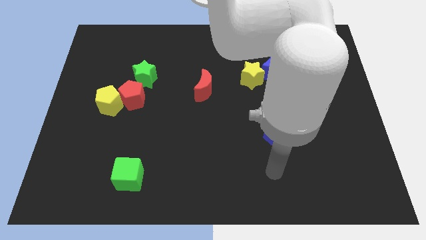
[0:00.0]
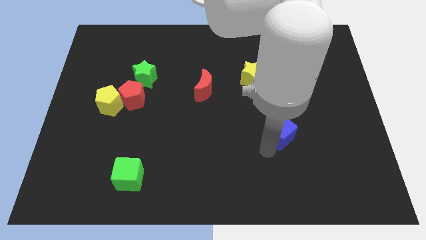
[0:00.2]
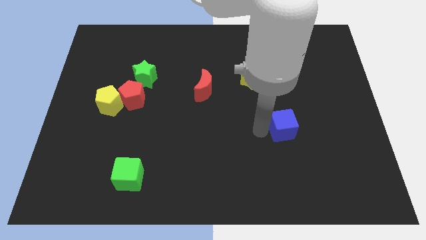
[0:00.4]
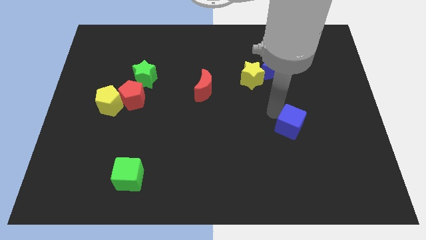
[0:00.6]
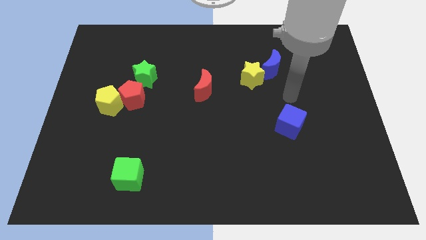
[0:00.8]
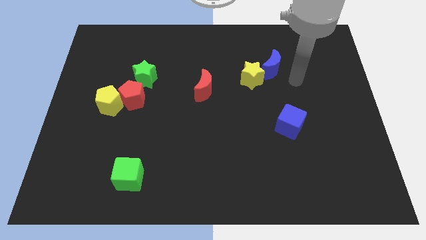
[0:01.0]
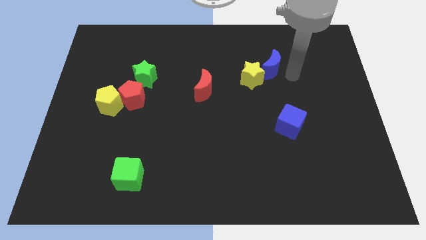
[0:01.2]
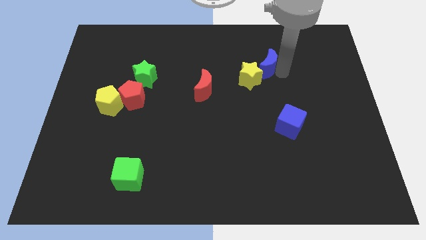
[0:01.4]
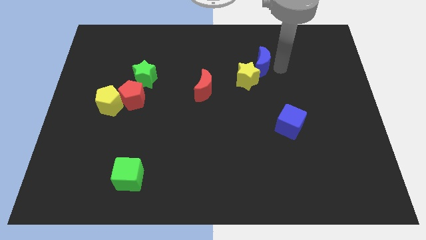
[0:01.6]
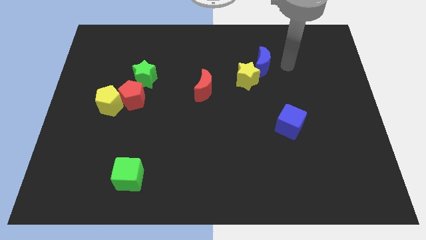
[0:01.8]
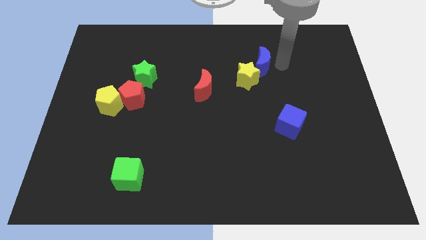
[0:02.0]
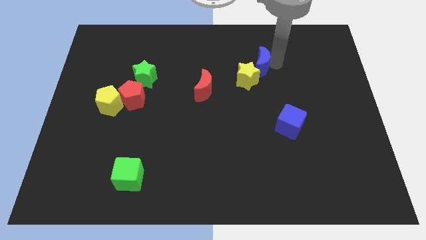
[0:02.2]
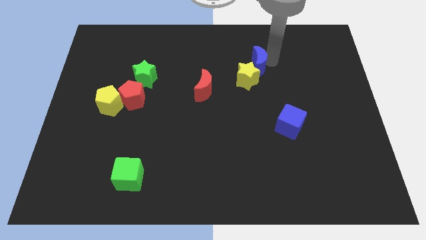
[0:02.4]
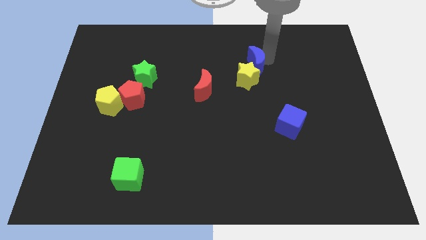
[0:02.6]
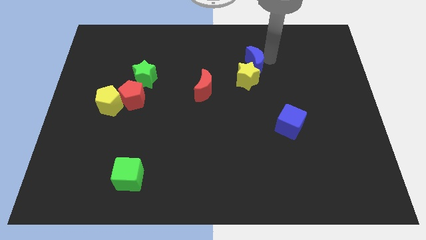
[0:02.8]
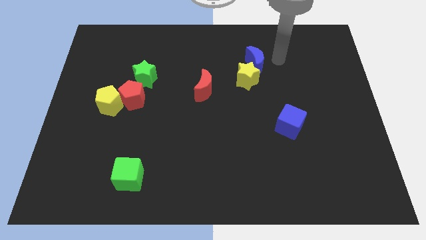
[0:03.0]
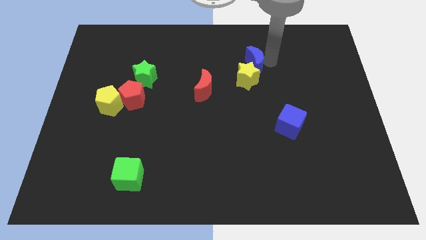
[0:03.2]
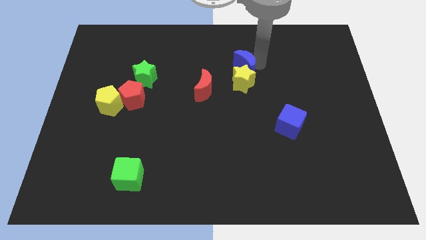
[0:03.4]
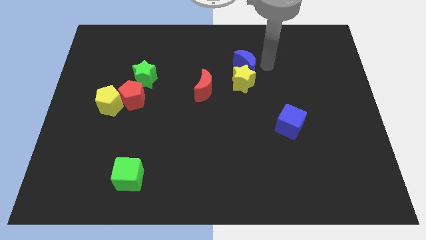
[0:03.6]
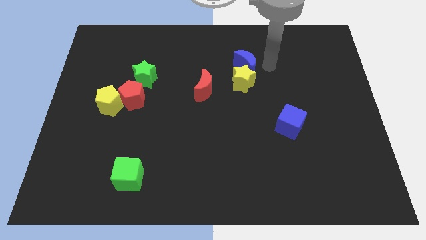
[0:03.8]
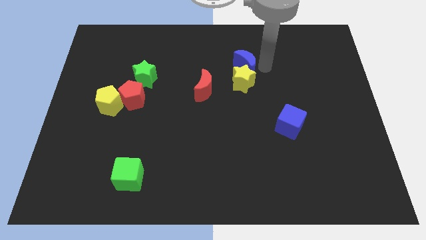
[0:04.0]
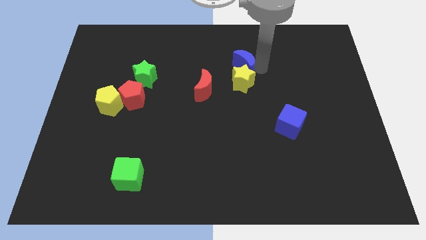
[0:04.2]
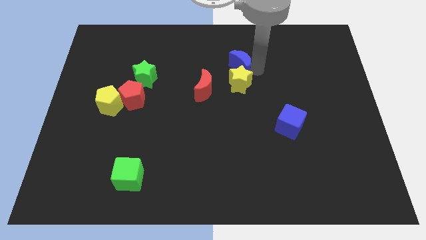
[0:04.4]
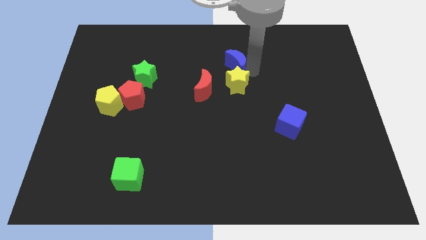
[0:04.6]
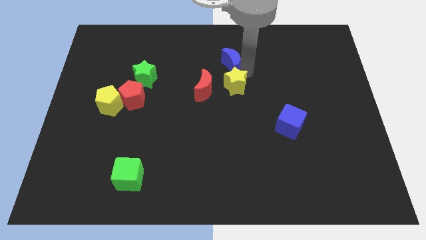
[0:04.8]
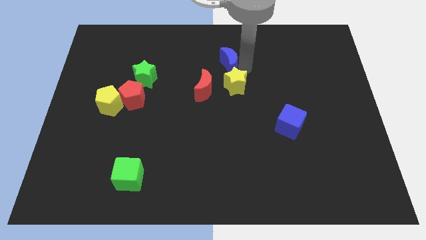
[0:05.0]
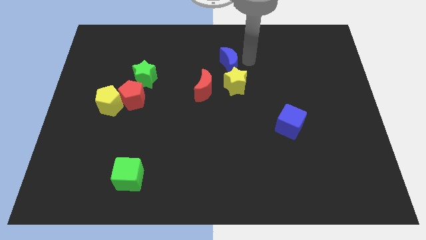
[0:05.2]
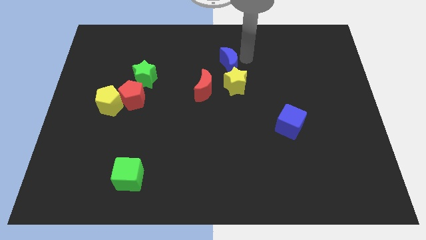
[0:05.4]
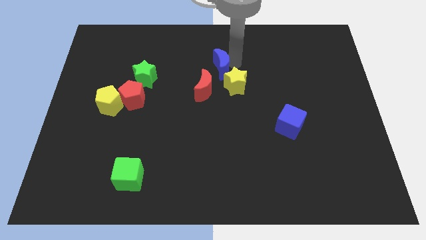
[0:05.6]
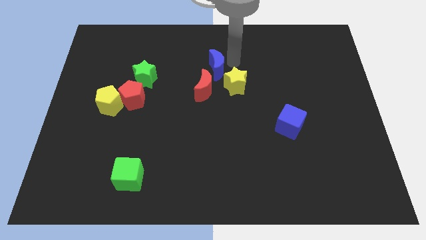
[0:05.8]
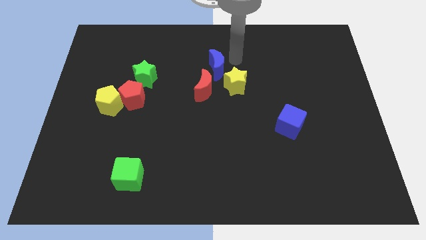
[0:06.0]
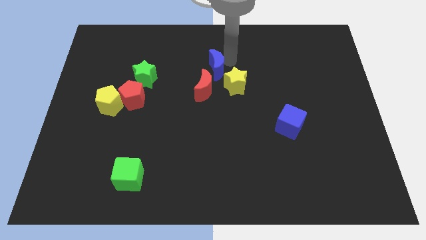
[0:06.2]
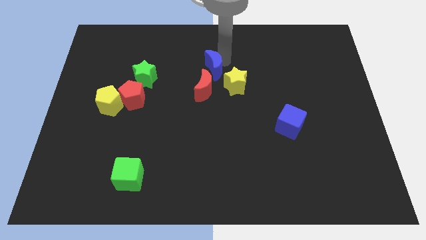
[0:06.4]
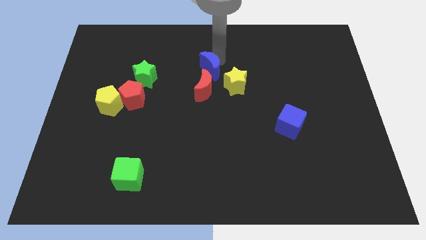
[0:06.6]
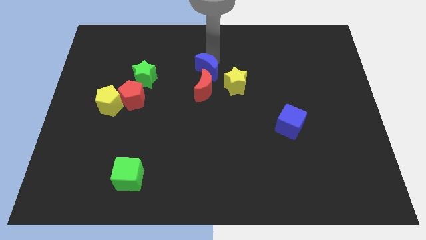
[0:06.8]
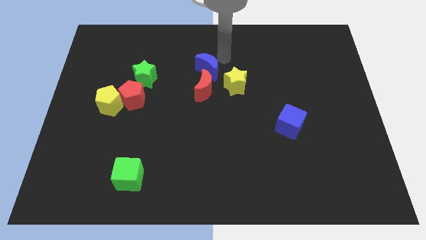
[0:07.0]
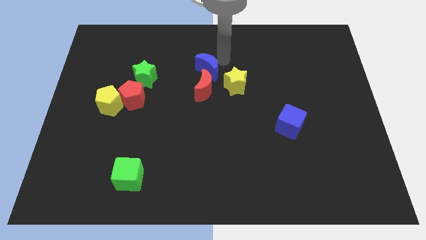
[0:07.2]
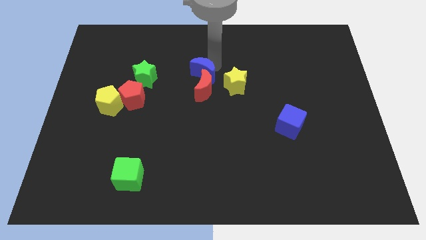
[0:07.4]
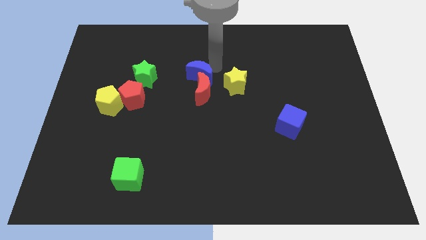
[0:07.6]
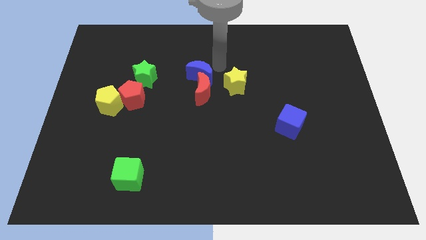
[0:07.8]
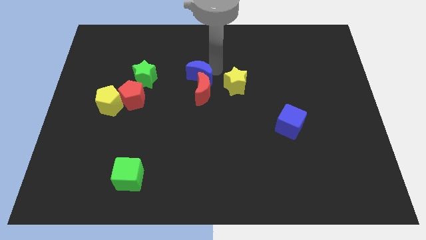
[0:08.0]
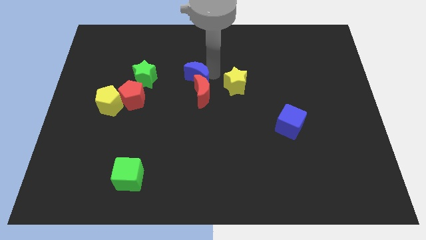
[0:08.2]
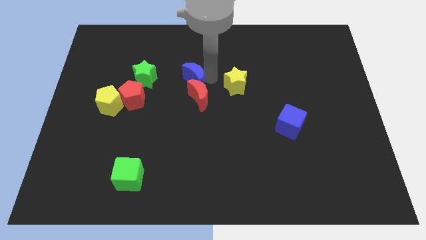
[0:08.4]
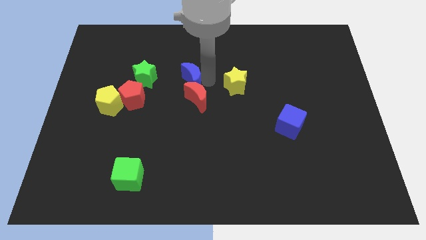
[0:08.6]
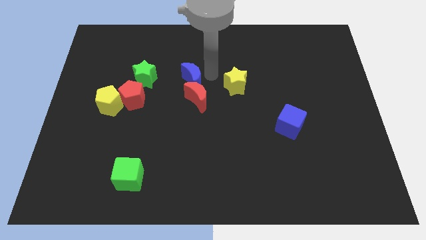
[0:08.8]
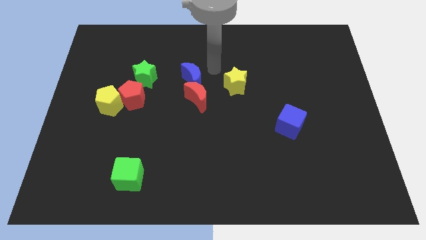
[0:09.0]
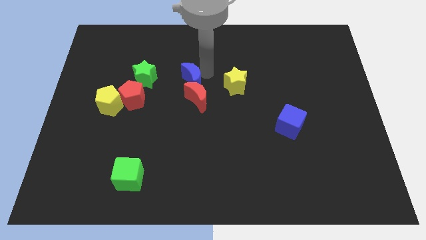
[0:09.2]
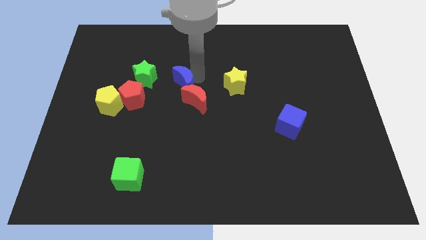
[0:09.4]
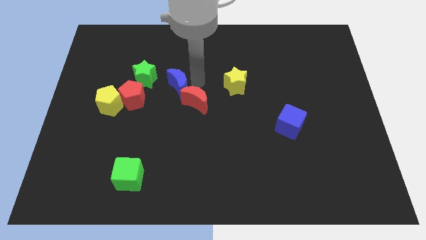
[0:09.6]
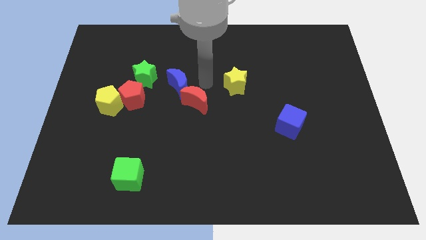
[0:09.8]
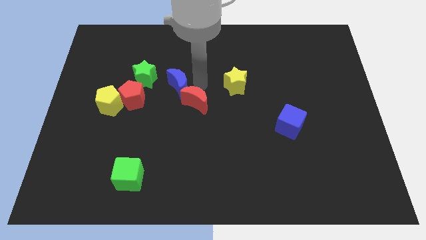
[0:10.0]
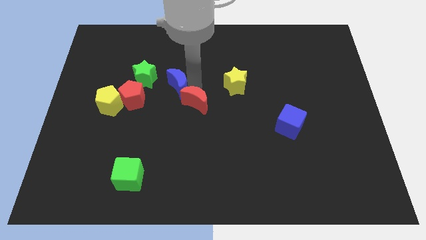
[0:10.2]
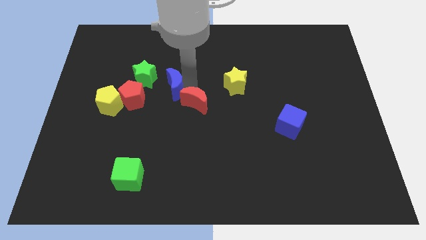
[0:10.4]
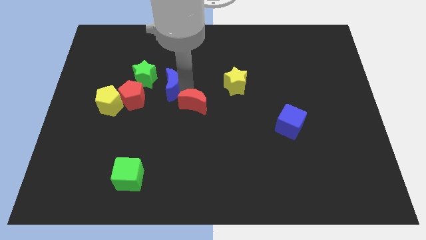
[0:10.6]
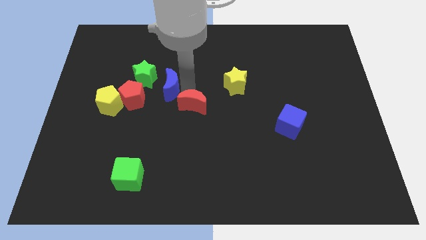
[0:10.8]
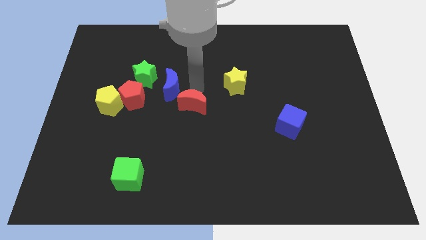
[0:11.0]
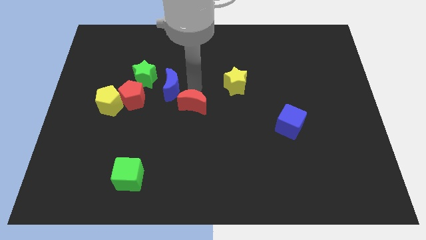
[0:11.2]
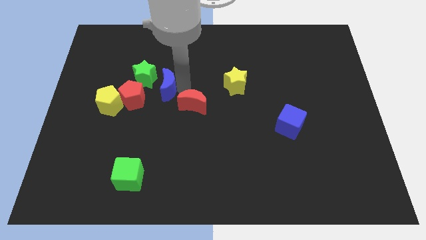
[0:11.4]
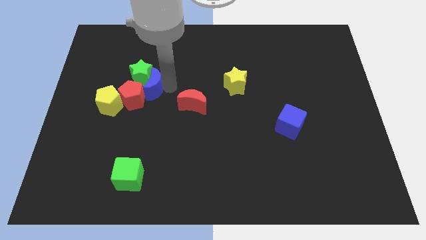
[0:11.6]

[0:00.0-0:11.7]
put the blue moon close to the red pentagon

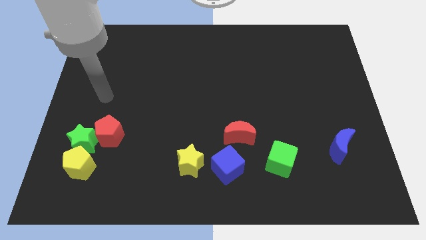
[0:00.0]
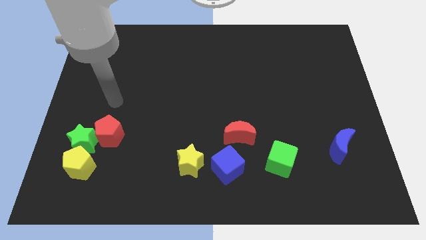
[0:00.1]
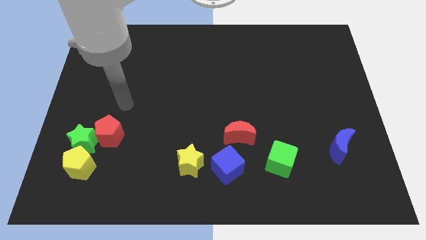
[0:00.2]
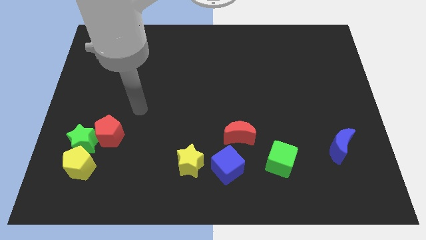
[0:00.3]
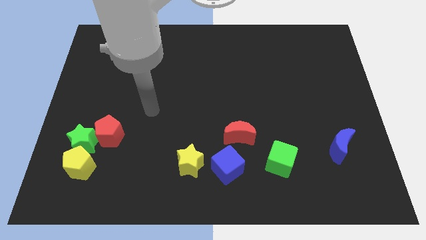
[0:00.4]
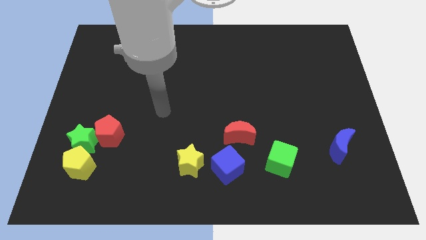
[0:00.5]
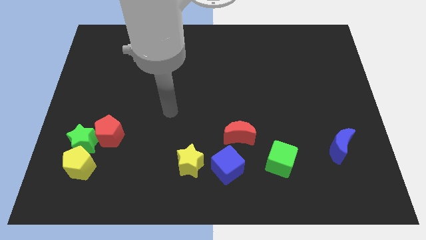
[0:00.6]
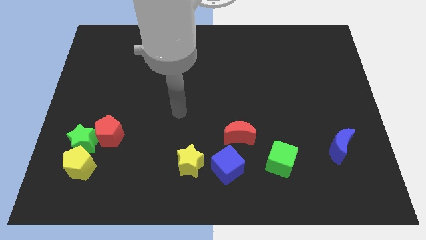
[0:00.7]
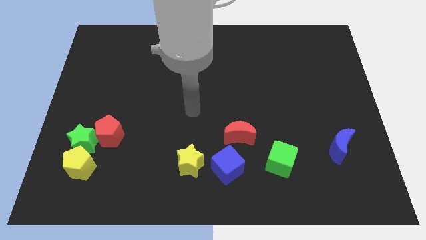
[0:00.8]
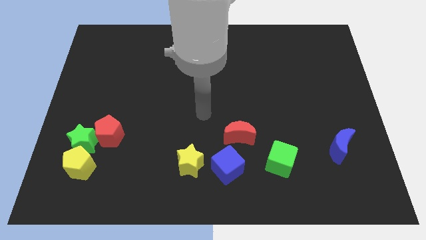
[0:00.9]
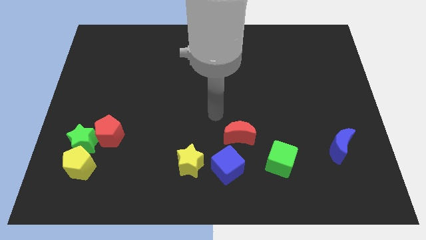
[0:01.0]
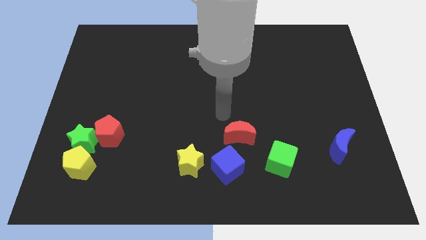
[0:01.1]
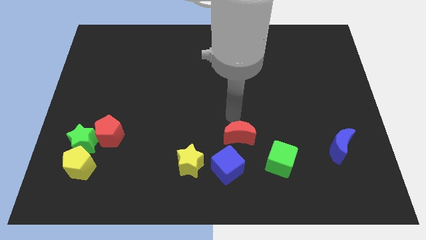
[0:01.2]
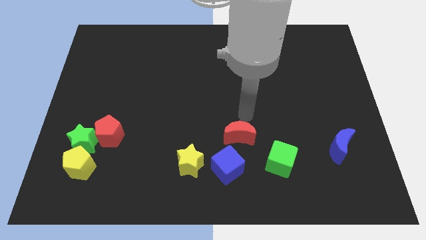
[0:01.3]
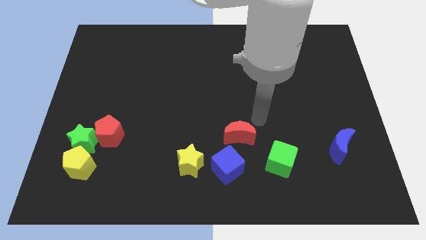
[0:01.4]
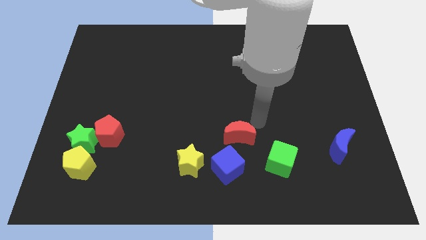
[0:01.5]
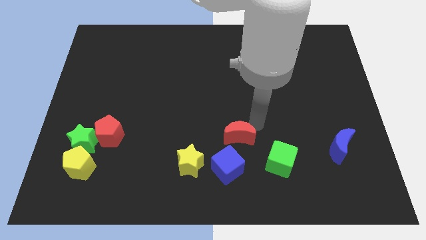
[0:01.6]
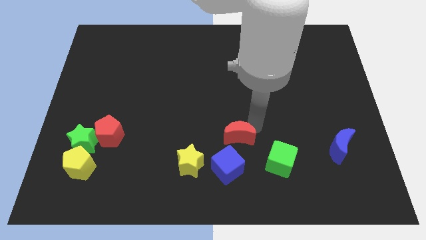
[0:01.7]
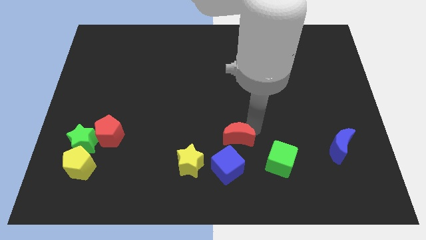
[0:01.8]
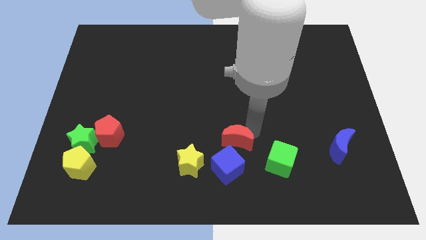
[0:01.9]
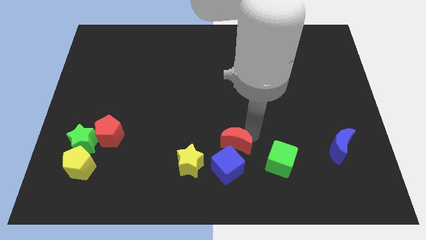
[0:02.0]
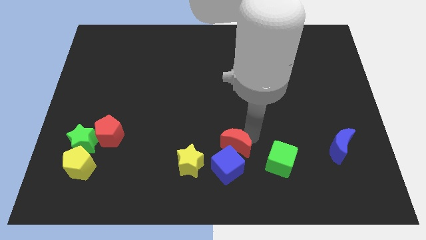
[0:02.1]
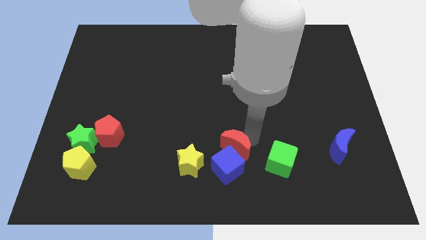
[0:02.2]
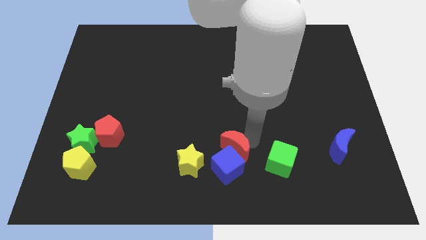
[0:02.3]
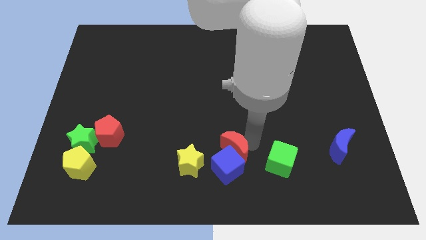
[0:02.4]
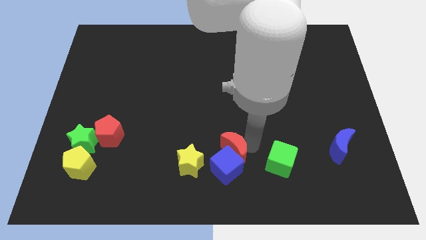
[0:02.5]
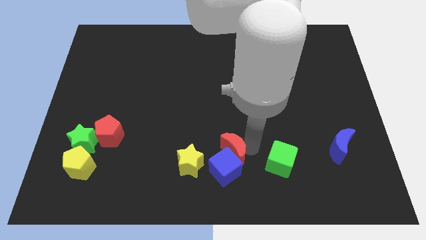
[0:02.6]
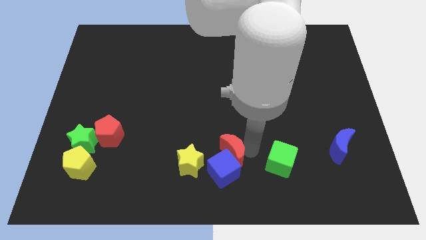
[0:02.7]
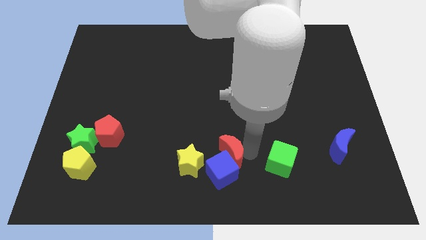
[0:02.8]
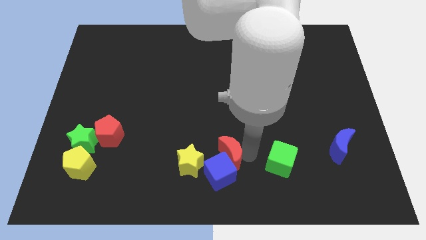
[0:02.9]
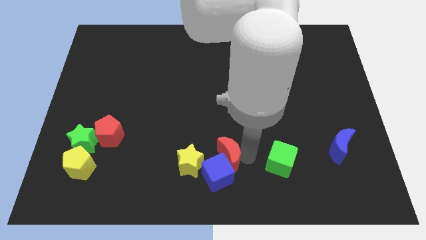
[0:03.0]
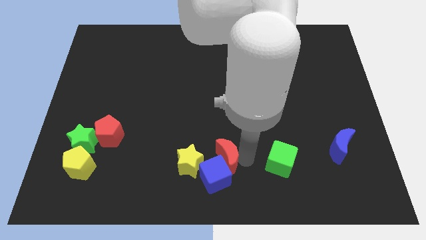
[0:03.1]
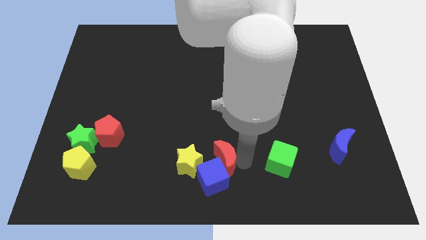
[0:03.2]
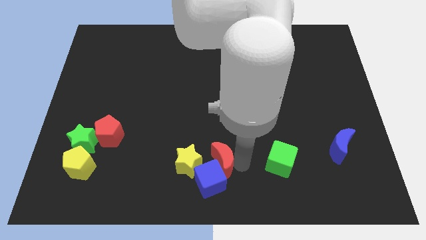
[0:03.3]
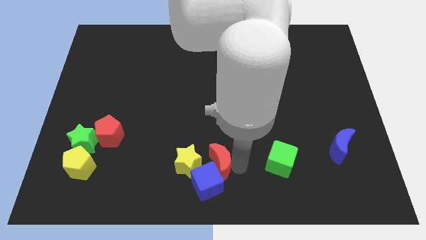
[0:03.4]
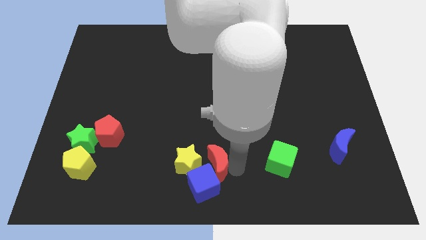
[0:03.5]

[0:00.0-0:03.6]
move the red moon next to the yellow star
